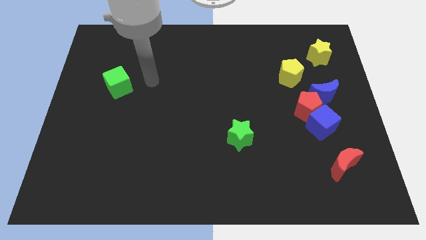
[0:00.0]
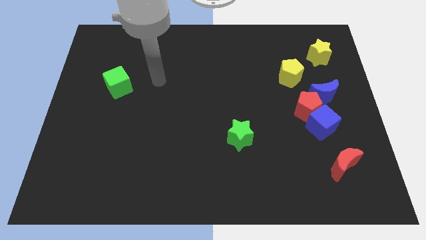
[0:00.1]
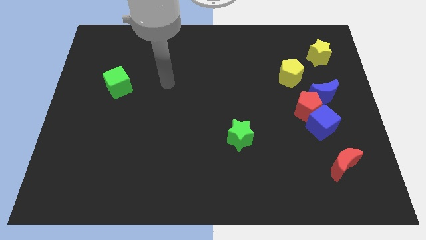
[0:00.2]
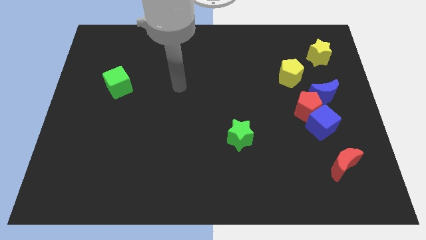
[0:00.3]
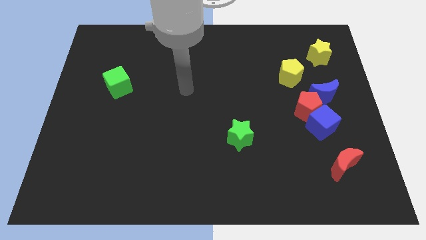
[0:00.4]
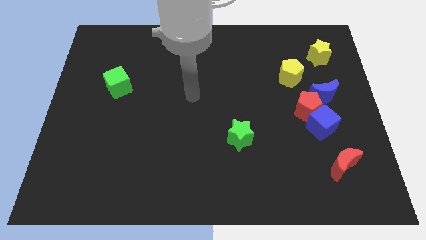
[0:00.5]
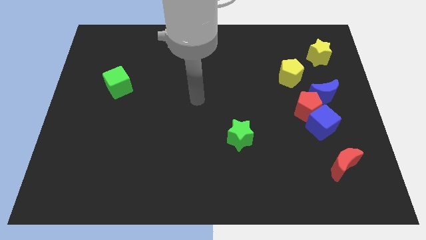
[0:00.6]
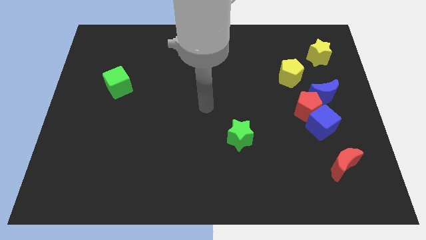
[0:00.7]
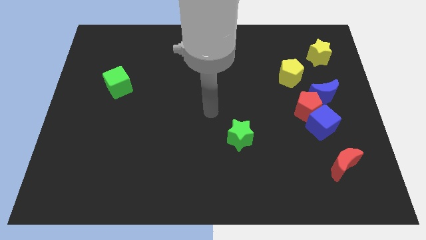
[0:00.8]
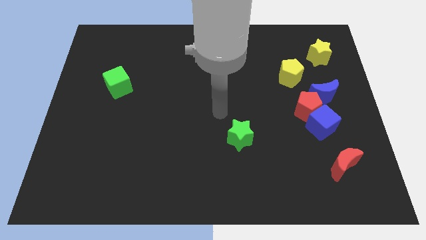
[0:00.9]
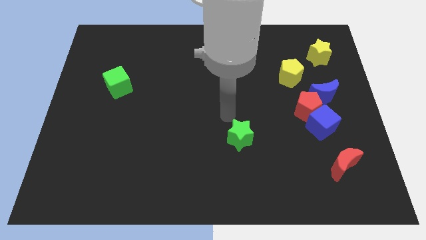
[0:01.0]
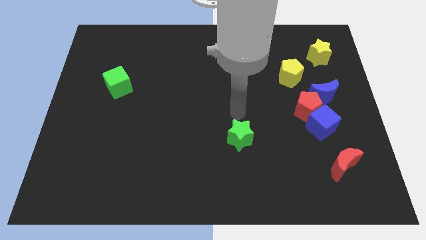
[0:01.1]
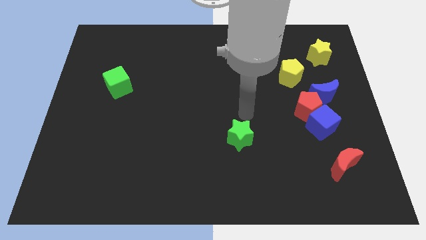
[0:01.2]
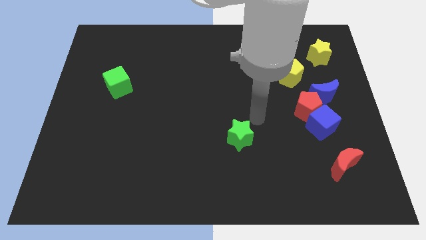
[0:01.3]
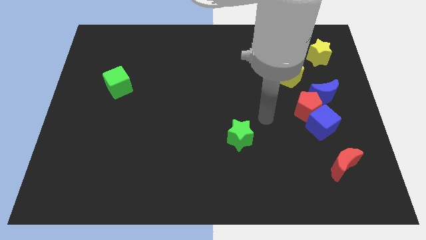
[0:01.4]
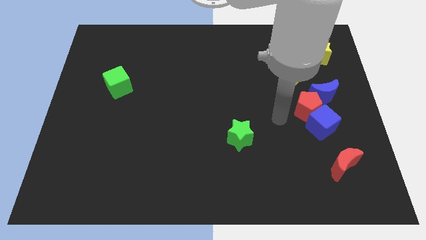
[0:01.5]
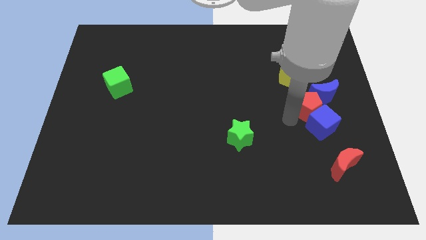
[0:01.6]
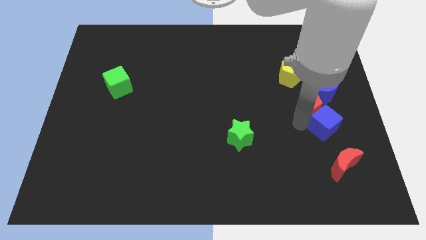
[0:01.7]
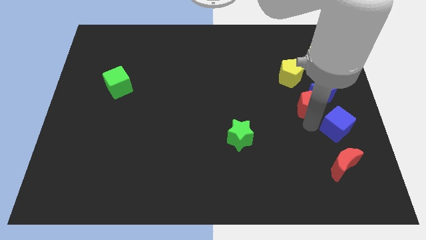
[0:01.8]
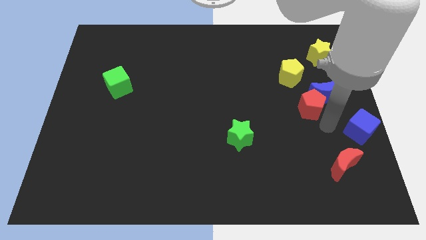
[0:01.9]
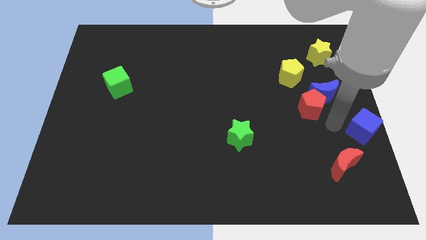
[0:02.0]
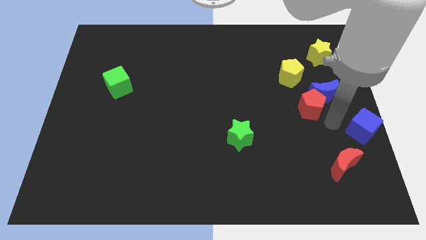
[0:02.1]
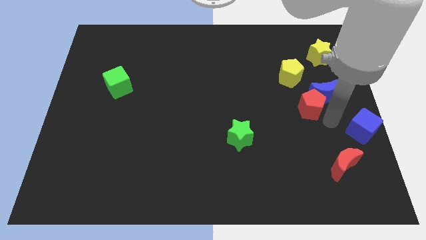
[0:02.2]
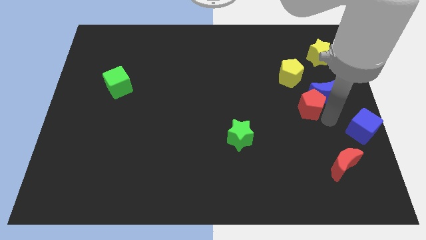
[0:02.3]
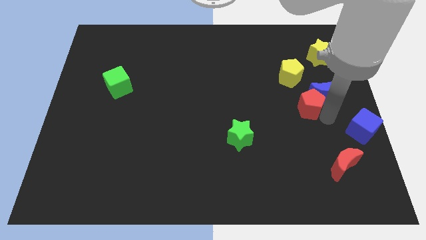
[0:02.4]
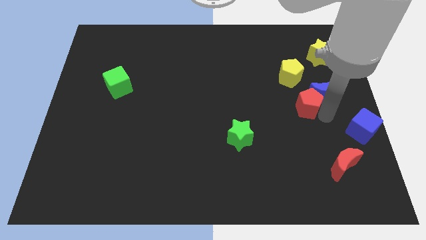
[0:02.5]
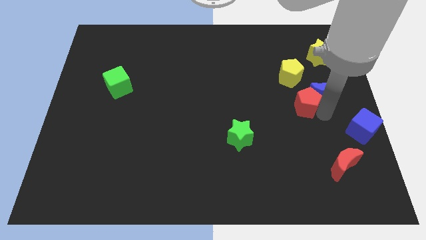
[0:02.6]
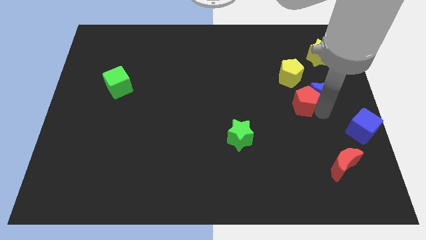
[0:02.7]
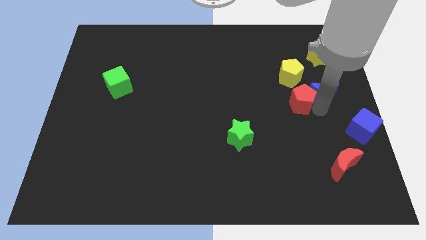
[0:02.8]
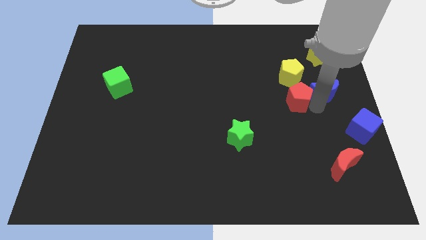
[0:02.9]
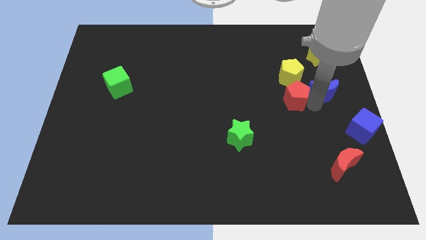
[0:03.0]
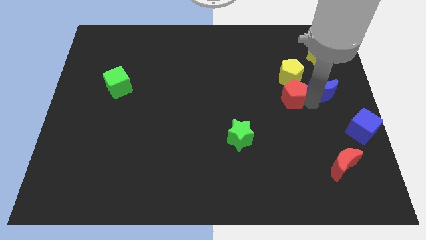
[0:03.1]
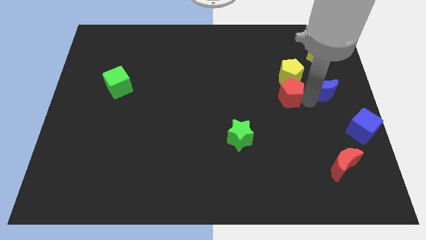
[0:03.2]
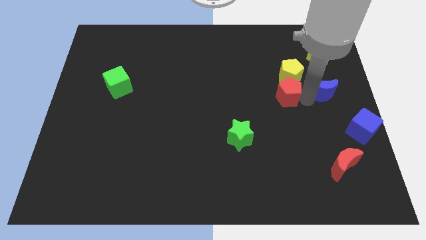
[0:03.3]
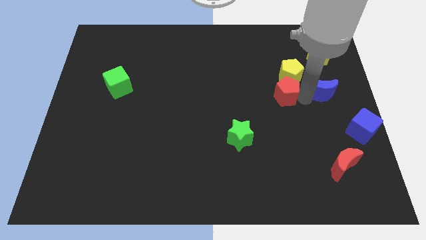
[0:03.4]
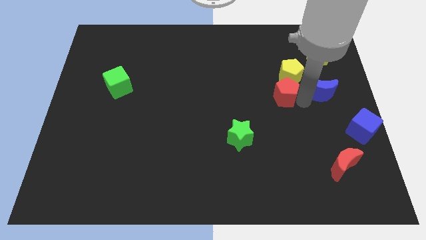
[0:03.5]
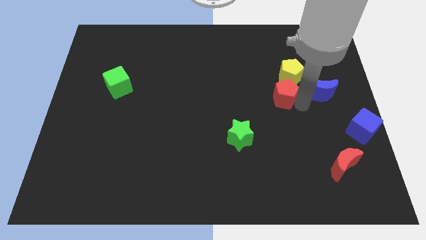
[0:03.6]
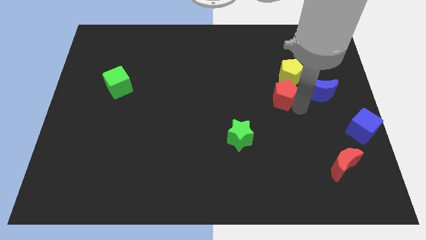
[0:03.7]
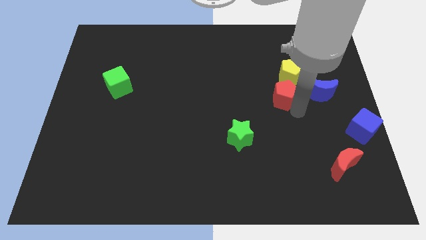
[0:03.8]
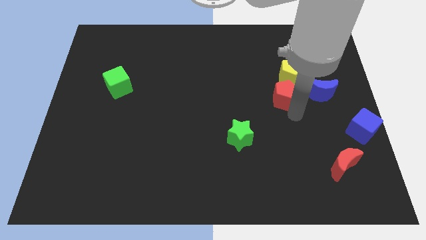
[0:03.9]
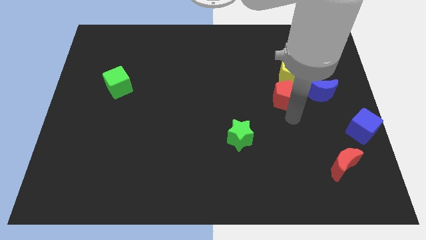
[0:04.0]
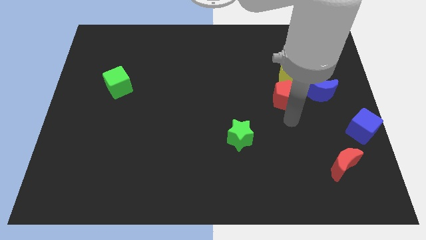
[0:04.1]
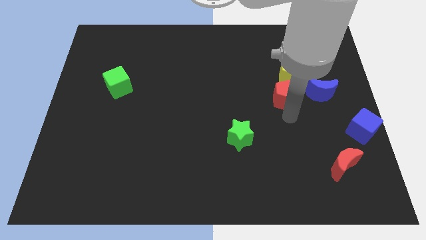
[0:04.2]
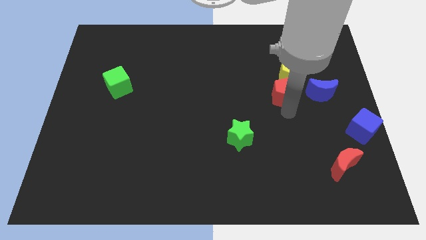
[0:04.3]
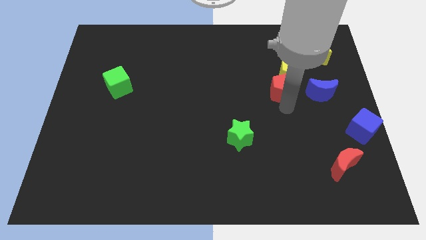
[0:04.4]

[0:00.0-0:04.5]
move the red pentagon somewhat diagonally up and to the left

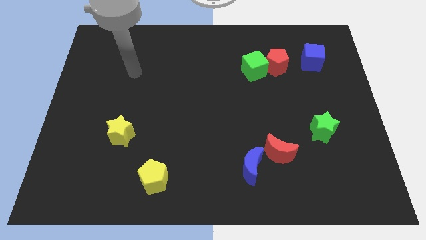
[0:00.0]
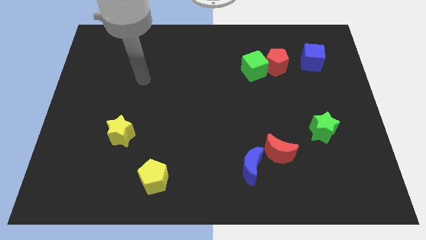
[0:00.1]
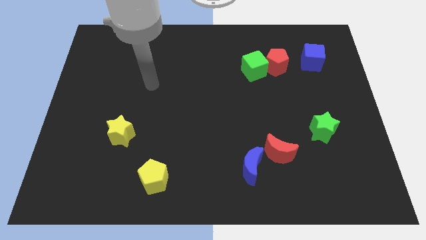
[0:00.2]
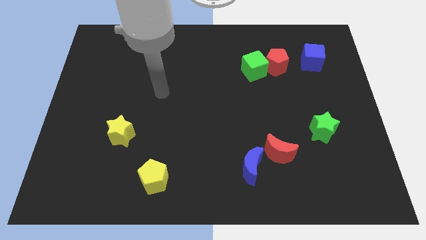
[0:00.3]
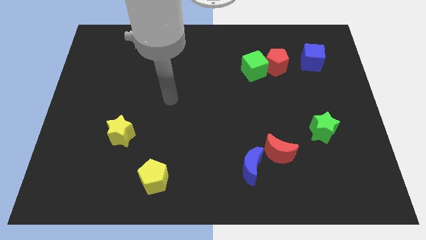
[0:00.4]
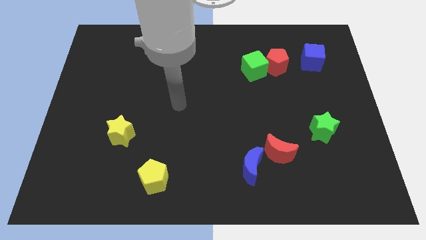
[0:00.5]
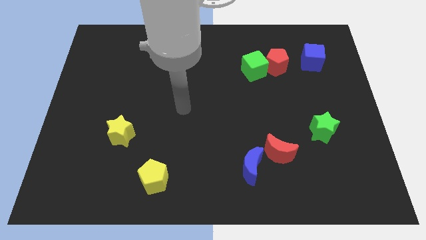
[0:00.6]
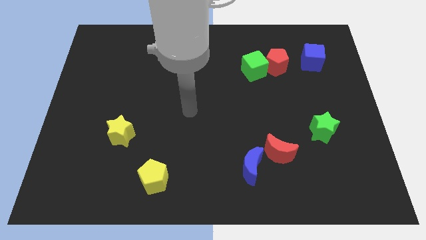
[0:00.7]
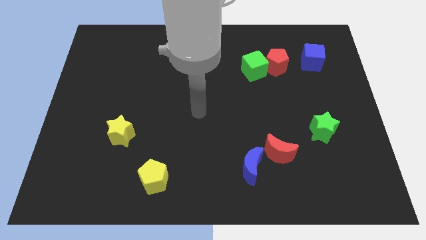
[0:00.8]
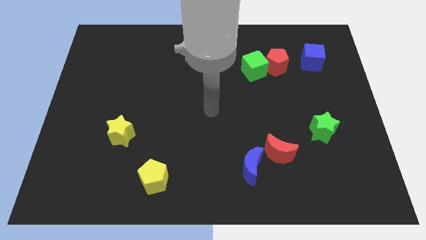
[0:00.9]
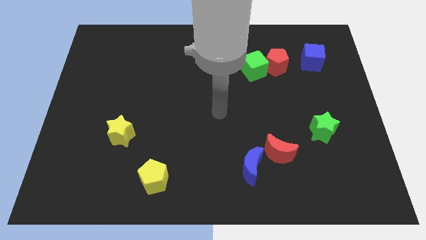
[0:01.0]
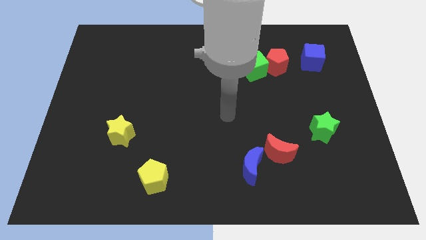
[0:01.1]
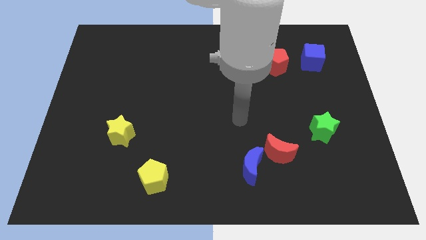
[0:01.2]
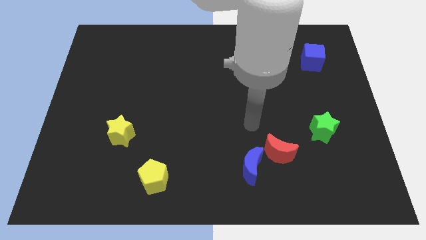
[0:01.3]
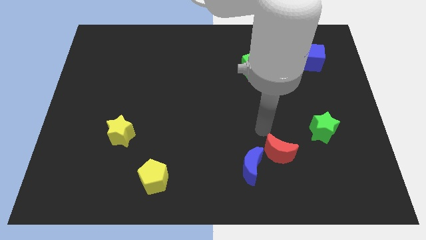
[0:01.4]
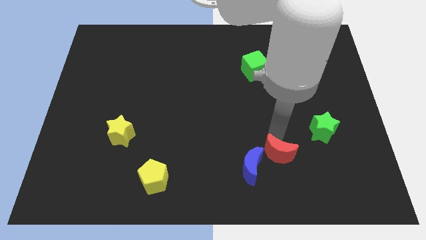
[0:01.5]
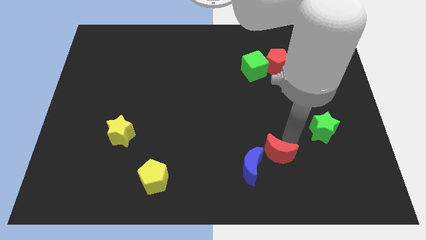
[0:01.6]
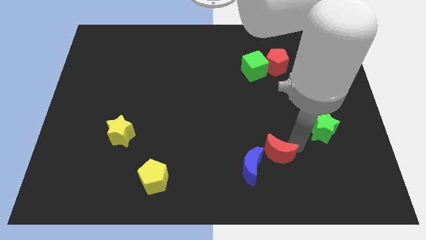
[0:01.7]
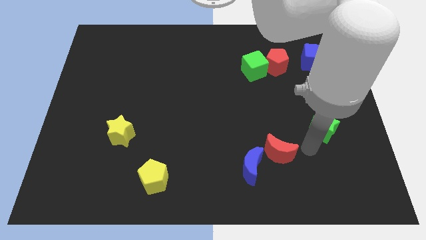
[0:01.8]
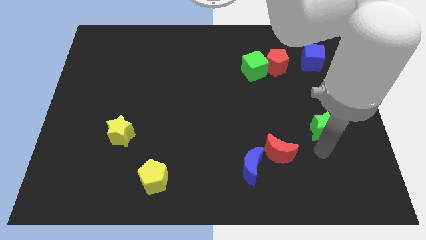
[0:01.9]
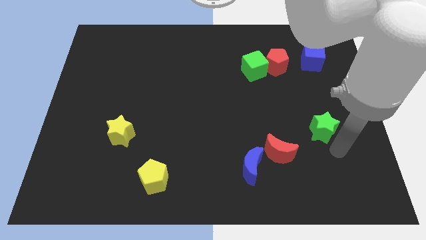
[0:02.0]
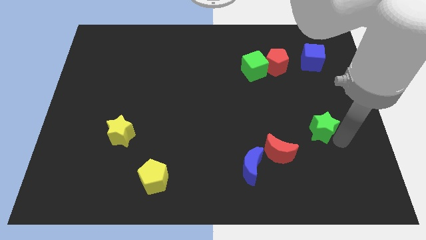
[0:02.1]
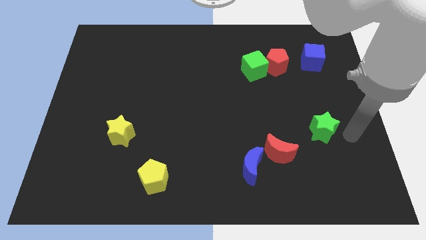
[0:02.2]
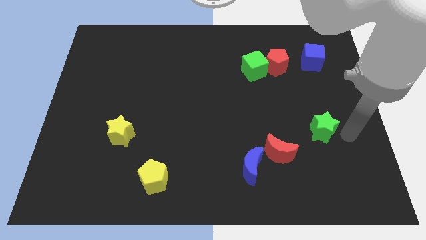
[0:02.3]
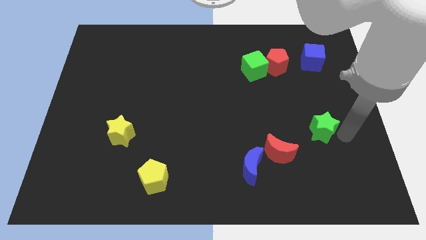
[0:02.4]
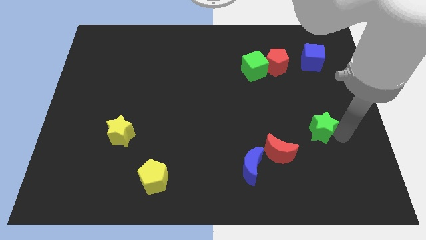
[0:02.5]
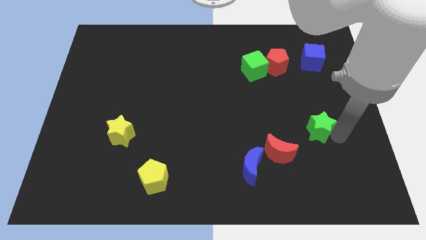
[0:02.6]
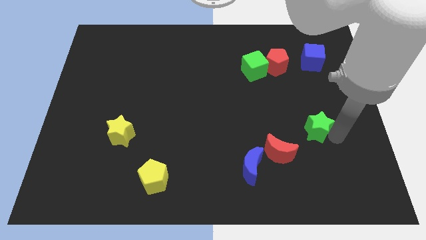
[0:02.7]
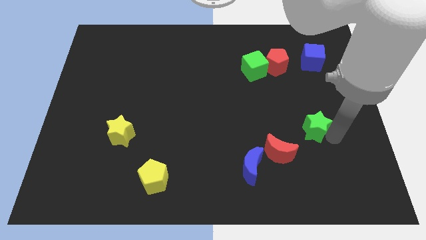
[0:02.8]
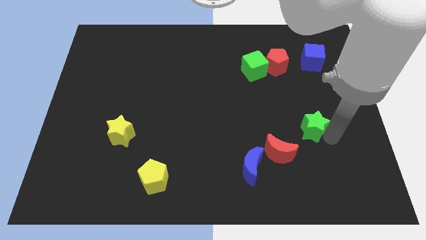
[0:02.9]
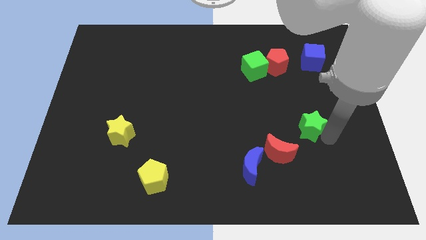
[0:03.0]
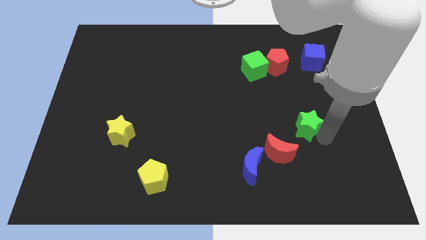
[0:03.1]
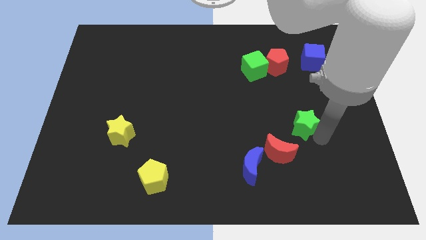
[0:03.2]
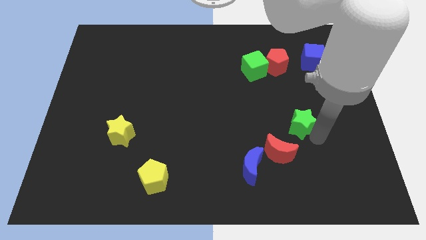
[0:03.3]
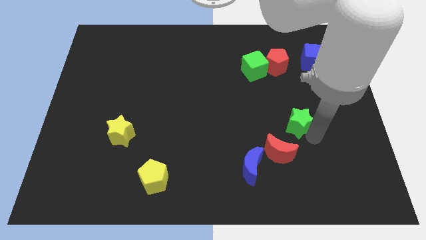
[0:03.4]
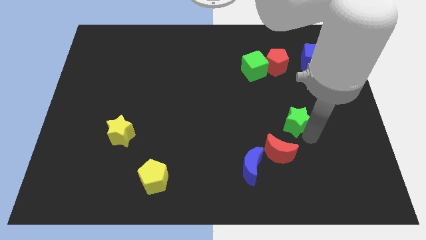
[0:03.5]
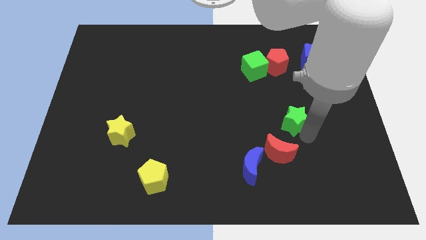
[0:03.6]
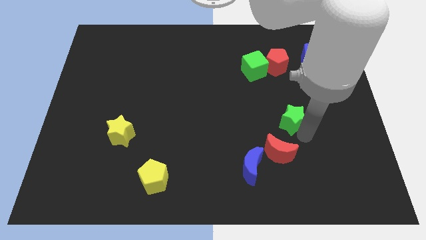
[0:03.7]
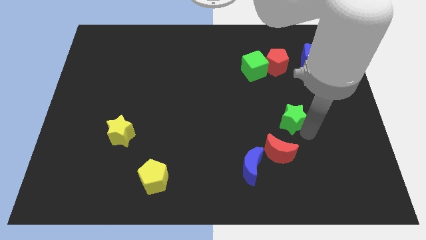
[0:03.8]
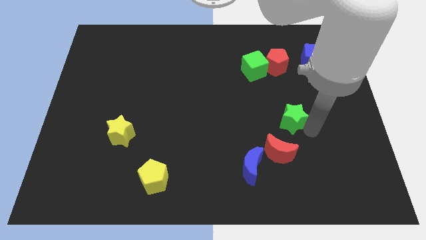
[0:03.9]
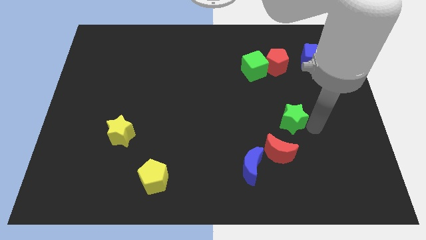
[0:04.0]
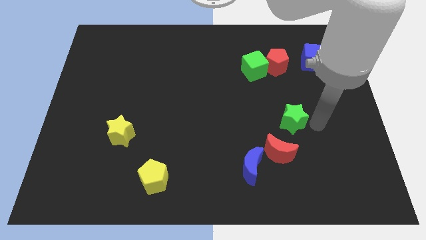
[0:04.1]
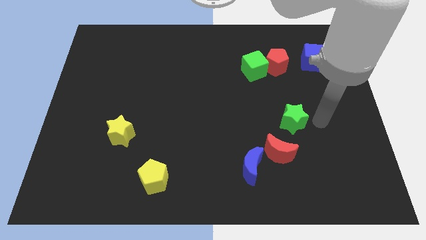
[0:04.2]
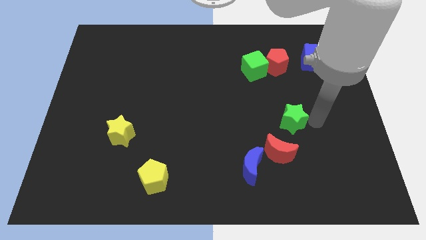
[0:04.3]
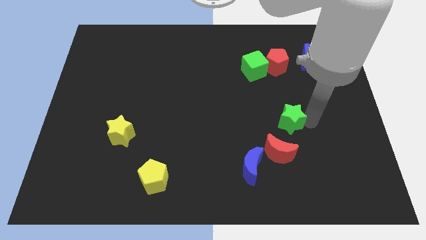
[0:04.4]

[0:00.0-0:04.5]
move the green star slightly left
